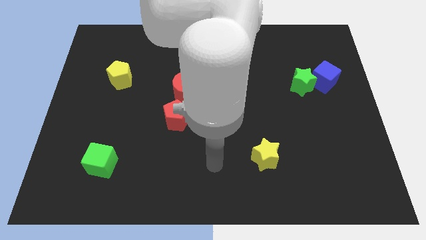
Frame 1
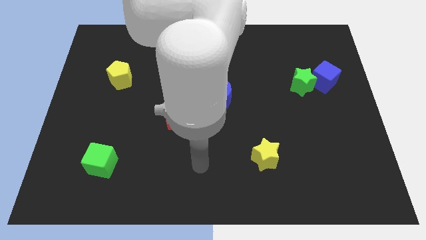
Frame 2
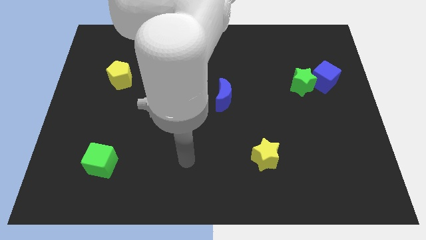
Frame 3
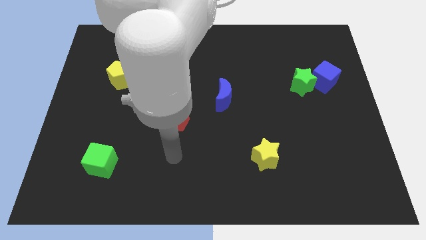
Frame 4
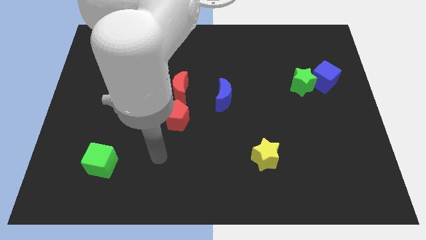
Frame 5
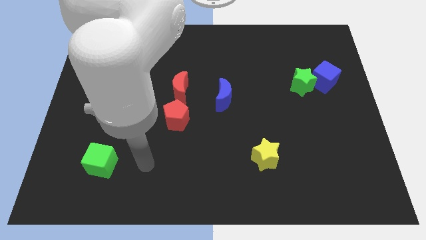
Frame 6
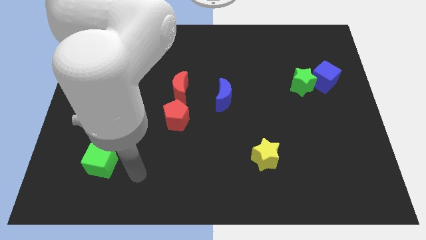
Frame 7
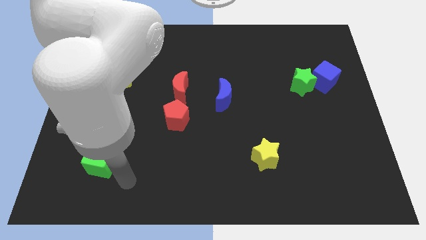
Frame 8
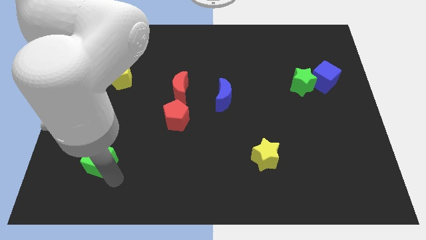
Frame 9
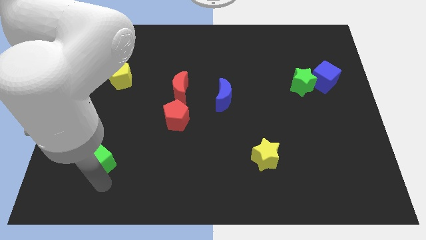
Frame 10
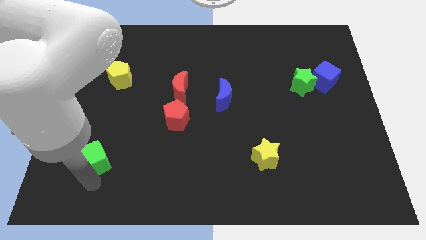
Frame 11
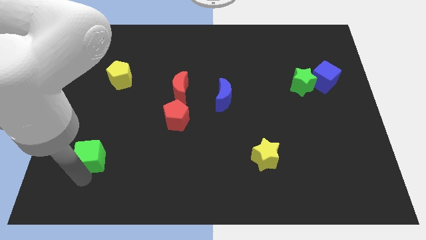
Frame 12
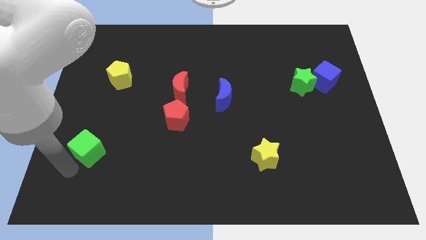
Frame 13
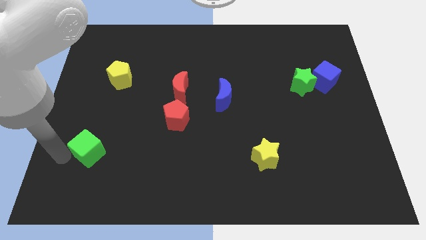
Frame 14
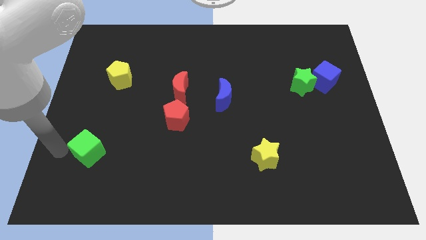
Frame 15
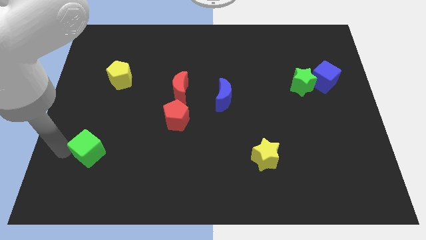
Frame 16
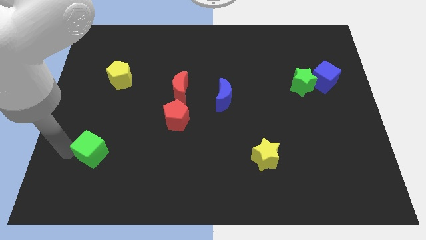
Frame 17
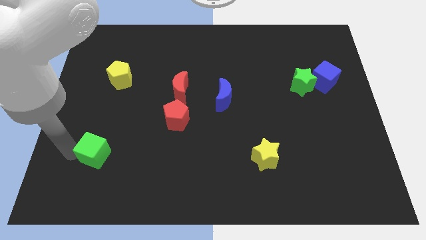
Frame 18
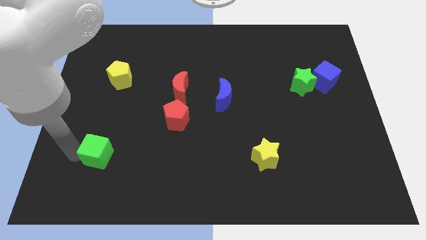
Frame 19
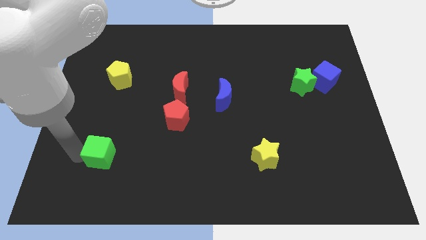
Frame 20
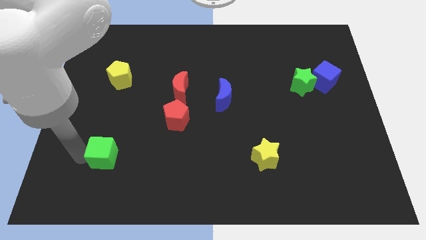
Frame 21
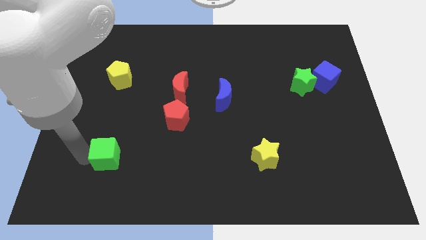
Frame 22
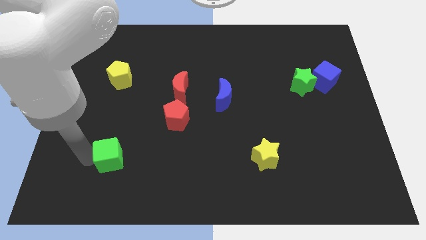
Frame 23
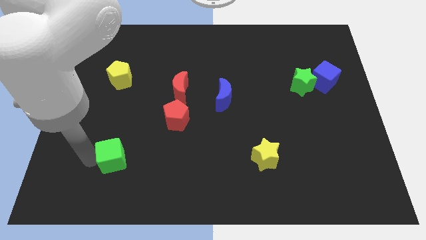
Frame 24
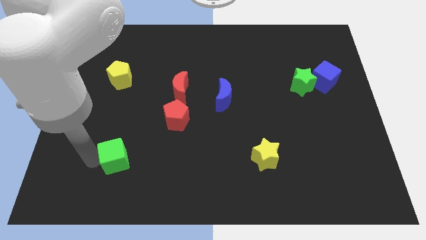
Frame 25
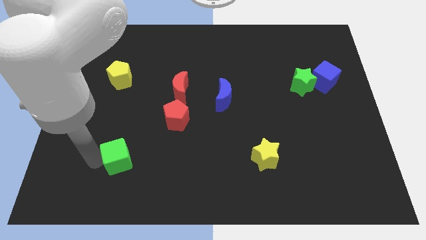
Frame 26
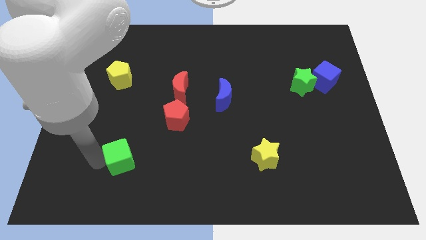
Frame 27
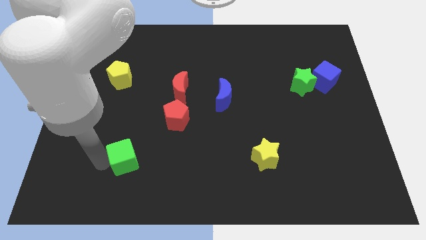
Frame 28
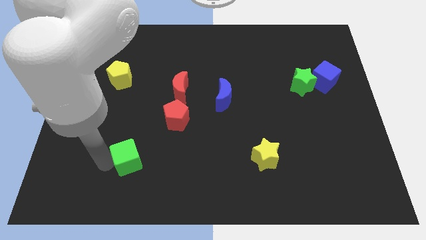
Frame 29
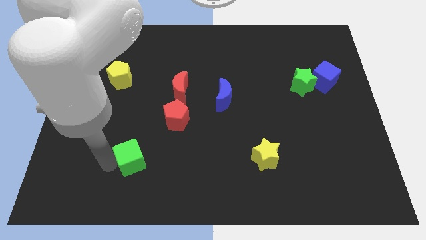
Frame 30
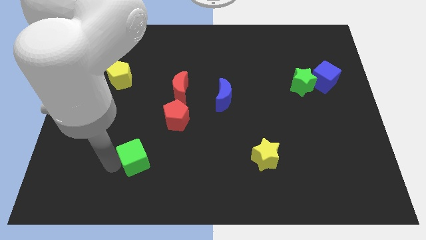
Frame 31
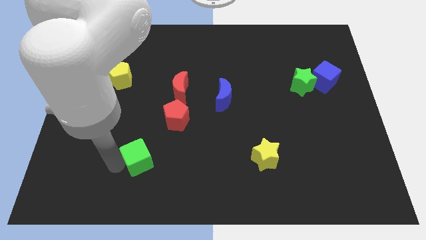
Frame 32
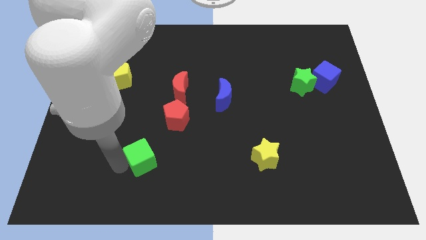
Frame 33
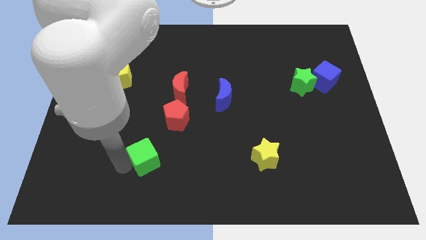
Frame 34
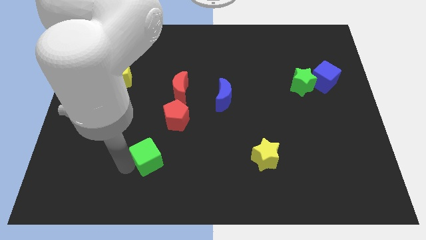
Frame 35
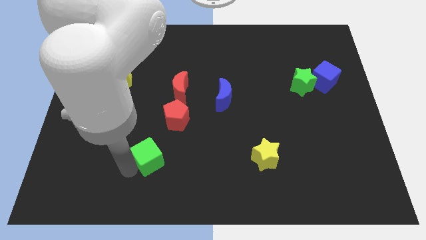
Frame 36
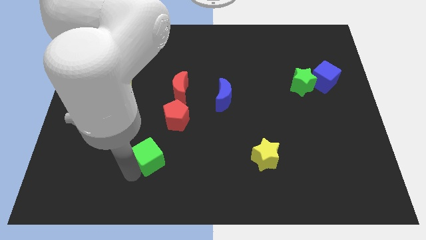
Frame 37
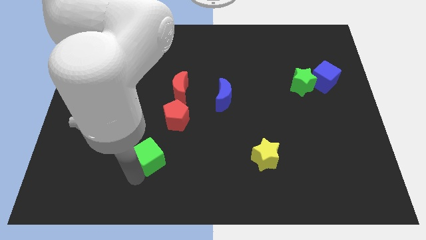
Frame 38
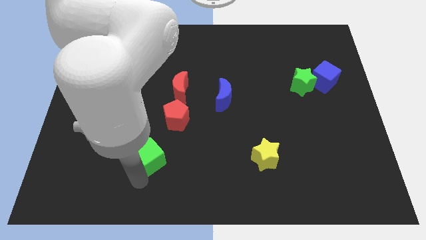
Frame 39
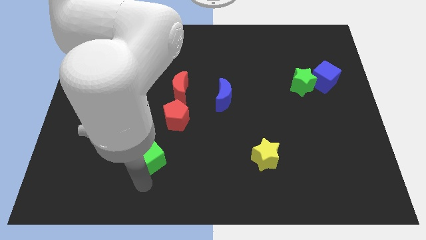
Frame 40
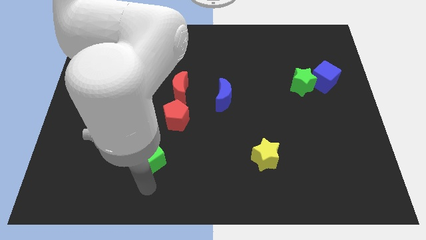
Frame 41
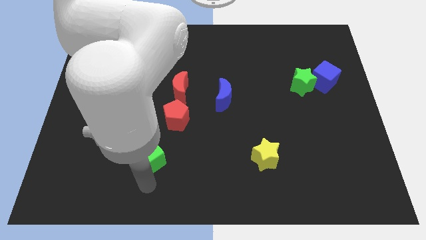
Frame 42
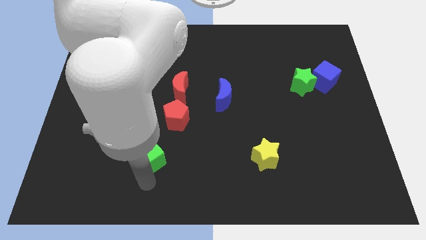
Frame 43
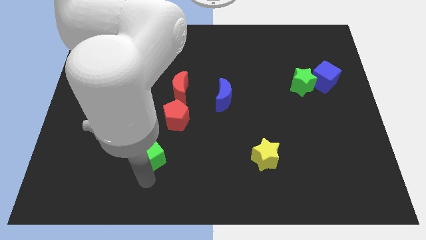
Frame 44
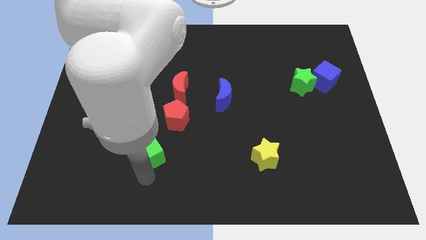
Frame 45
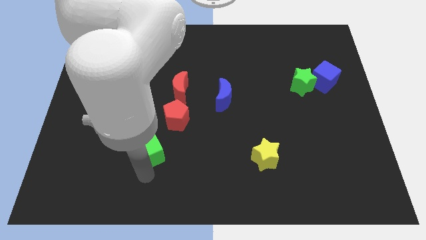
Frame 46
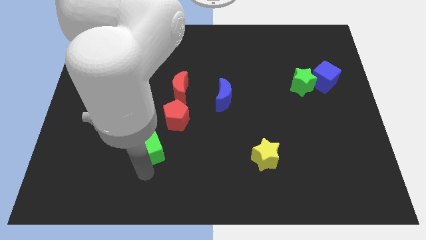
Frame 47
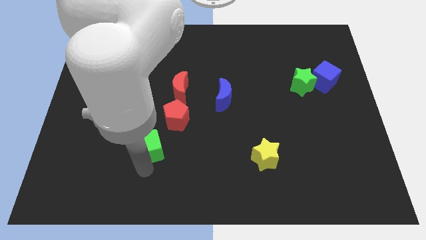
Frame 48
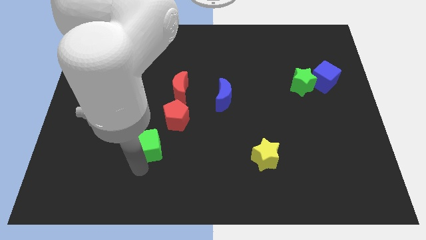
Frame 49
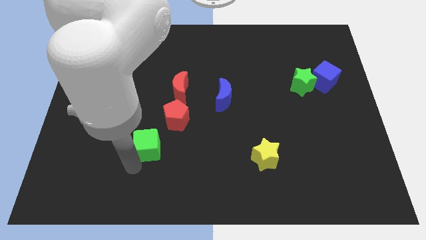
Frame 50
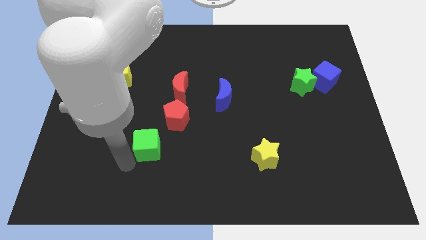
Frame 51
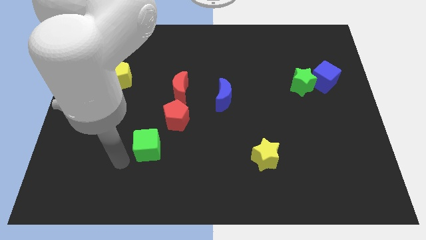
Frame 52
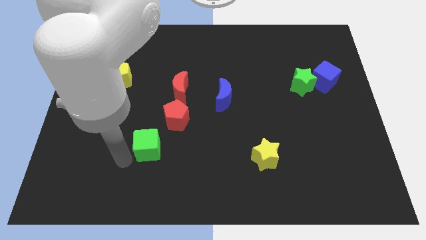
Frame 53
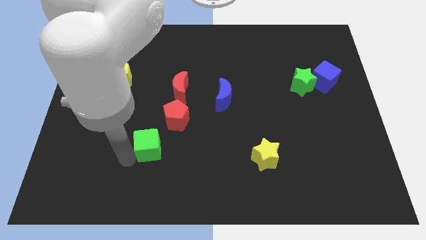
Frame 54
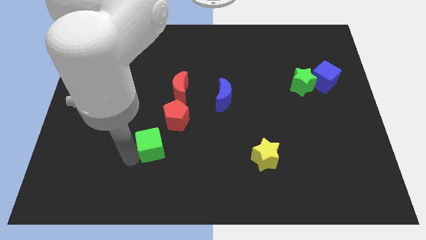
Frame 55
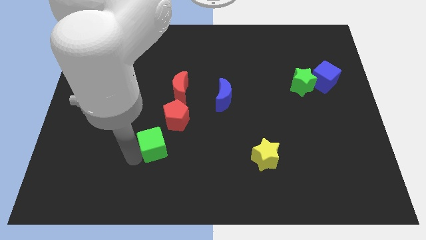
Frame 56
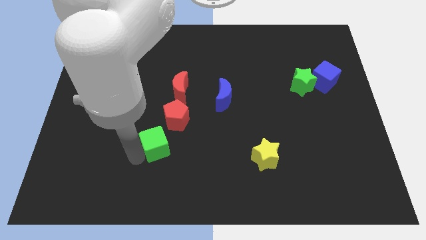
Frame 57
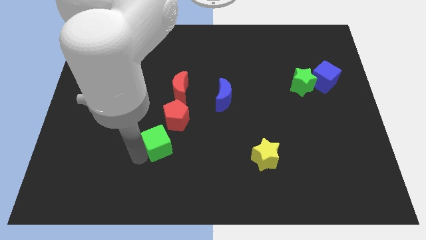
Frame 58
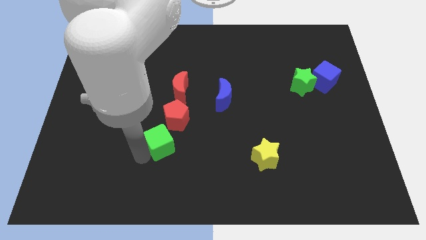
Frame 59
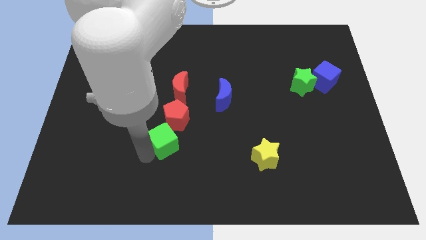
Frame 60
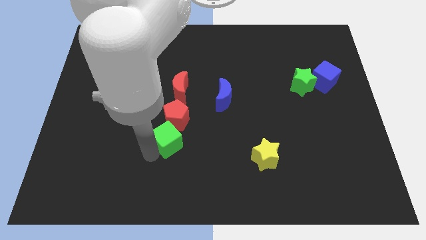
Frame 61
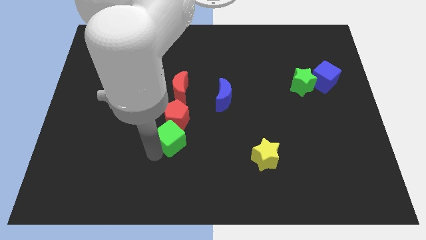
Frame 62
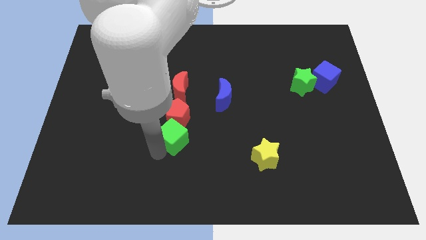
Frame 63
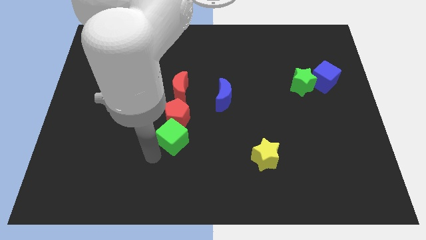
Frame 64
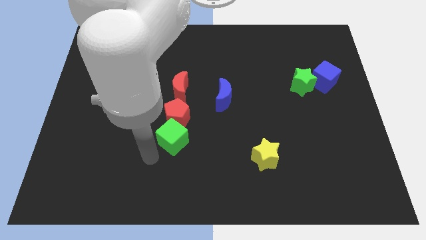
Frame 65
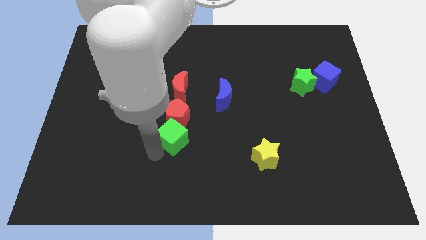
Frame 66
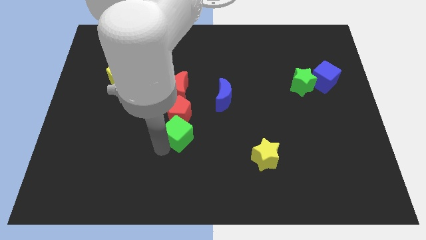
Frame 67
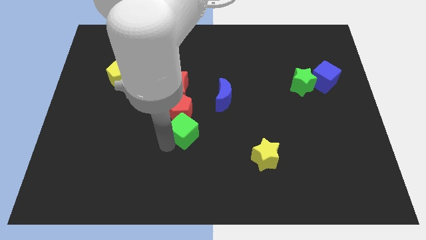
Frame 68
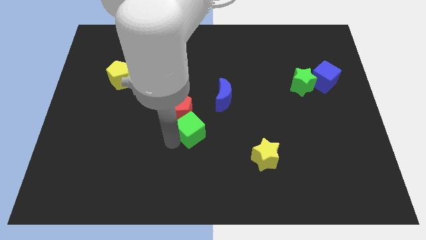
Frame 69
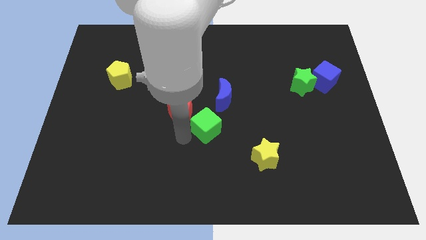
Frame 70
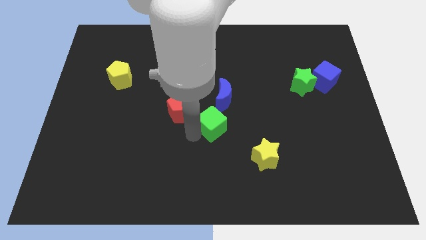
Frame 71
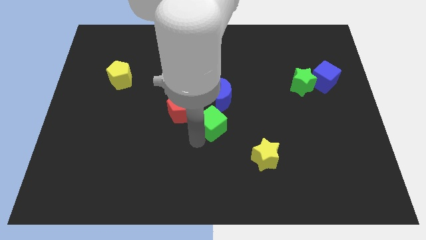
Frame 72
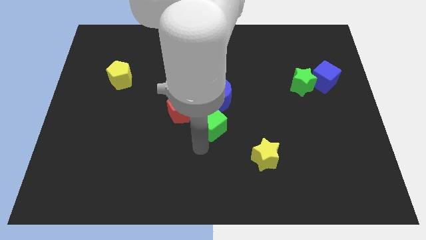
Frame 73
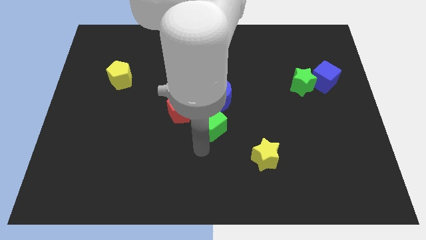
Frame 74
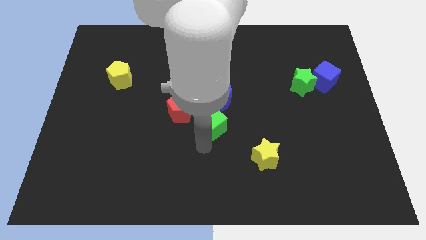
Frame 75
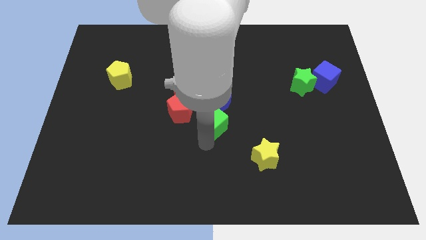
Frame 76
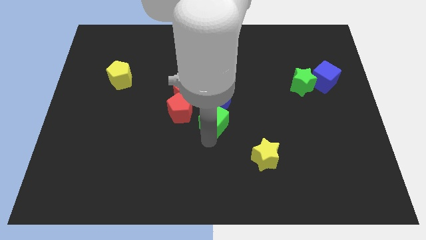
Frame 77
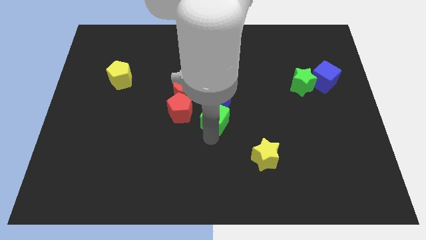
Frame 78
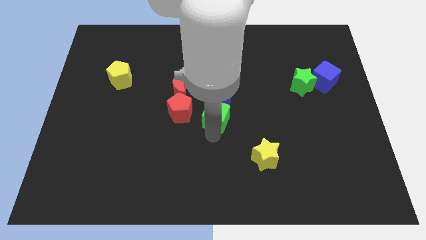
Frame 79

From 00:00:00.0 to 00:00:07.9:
slide the green cube towards the blue moon

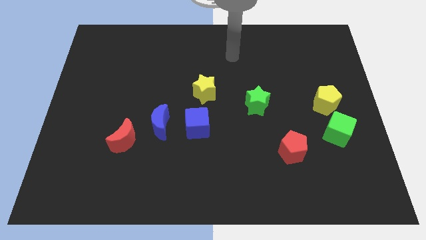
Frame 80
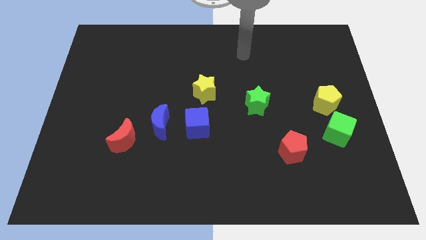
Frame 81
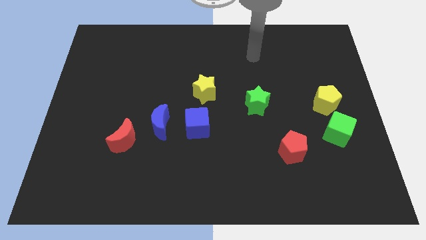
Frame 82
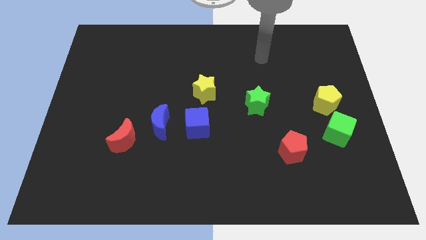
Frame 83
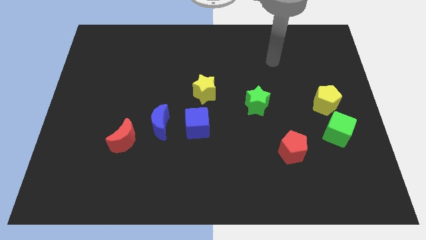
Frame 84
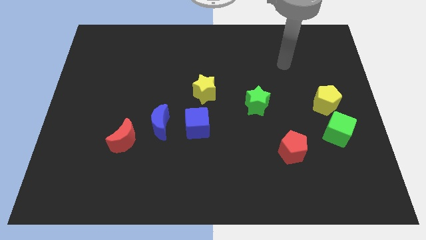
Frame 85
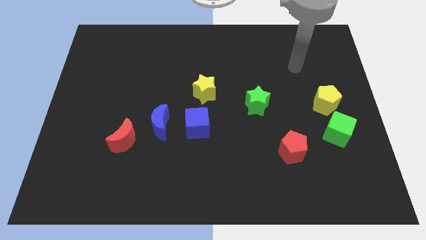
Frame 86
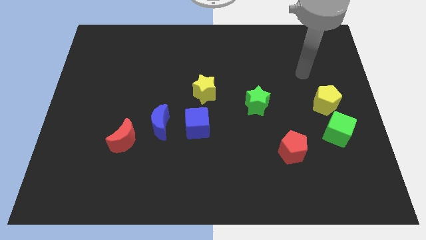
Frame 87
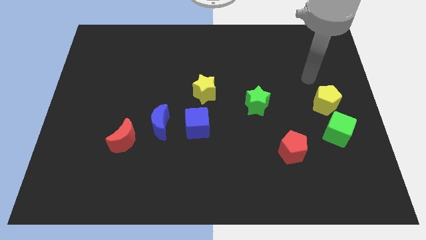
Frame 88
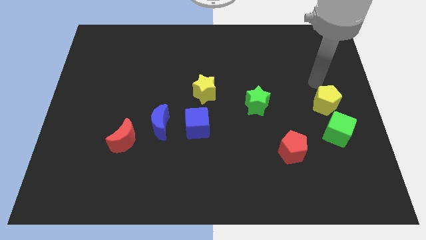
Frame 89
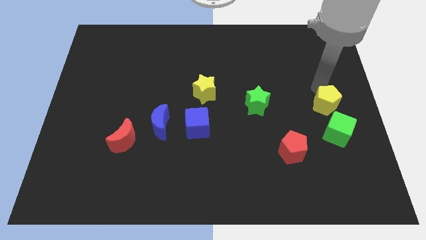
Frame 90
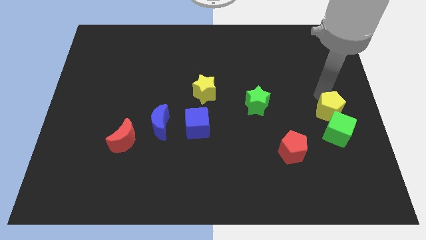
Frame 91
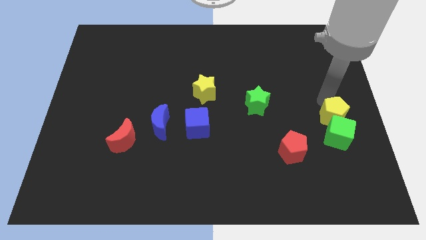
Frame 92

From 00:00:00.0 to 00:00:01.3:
slide the yellow pentagon next to the green cube
